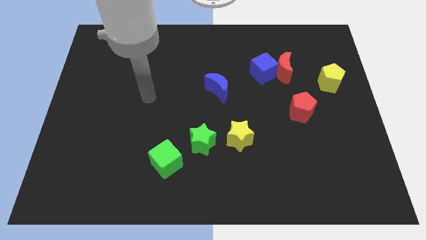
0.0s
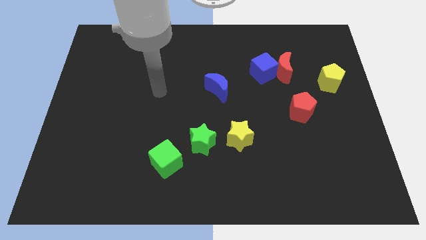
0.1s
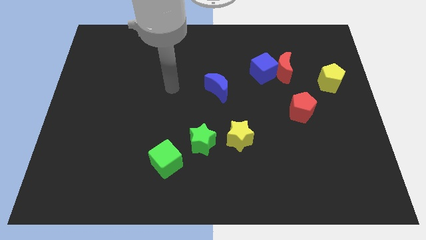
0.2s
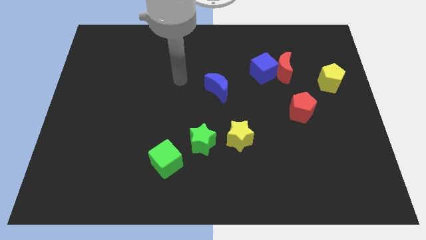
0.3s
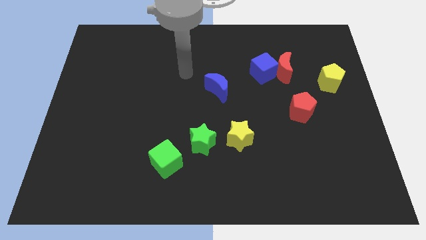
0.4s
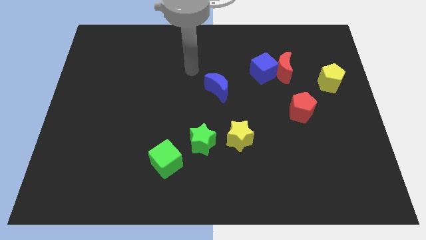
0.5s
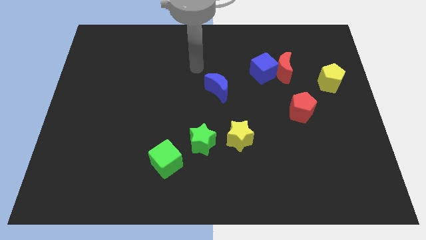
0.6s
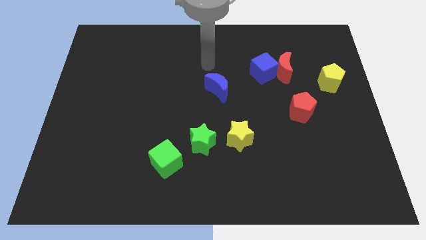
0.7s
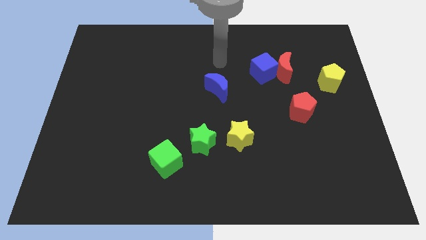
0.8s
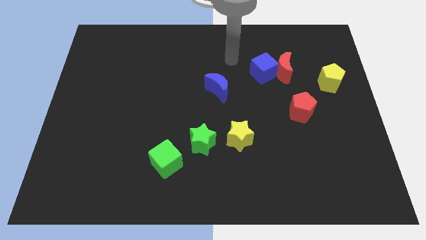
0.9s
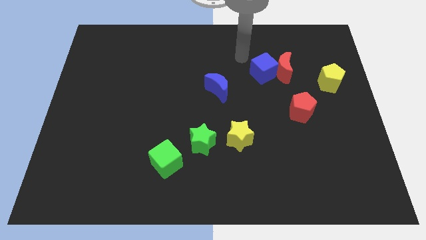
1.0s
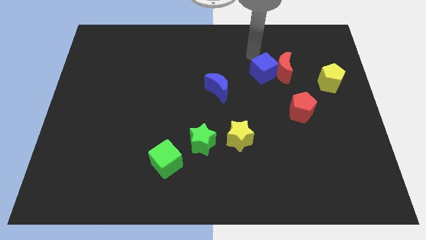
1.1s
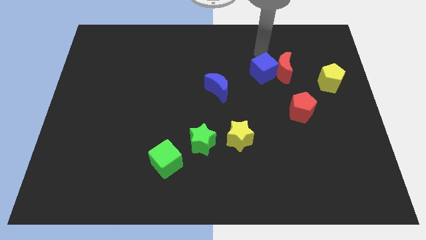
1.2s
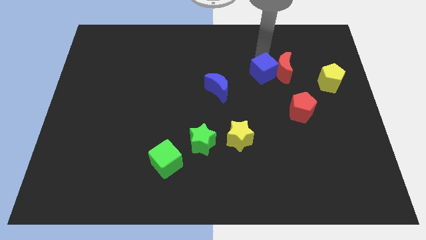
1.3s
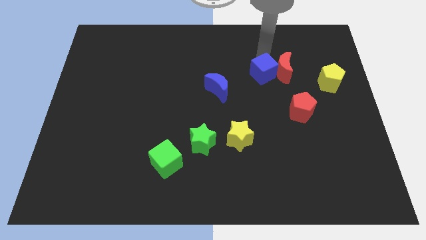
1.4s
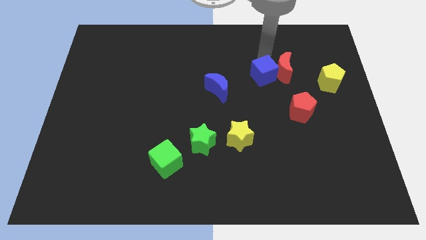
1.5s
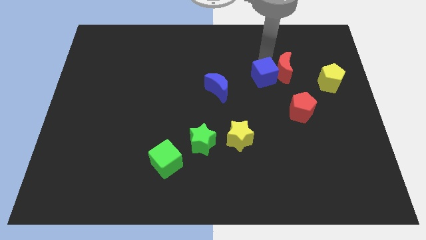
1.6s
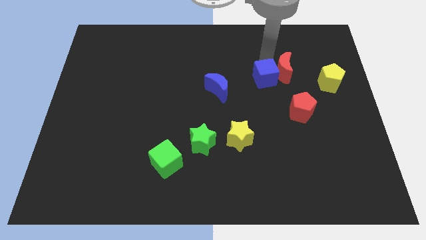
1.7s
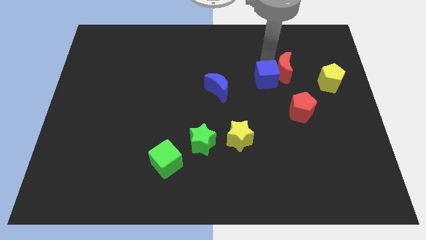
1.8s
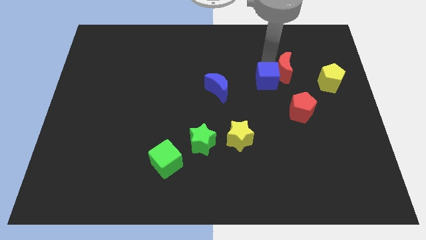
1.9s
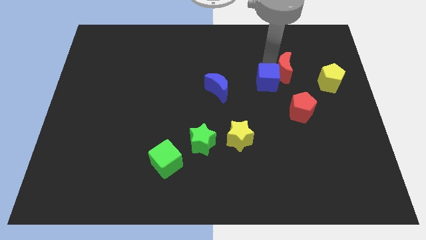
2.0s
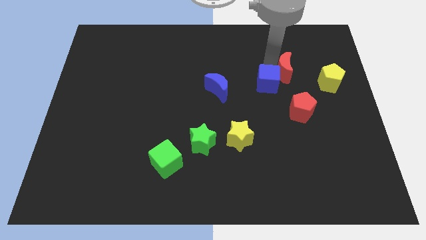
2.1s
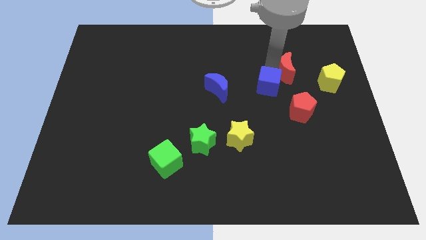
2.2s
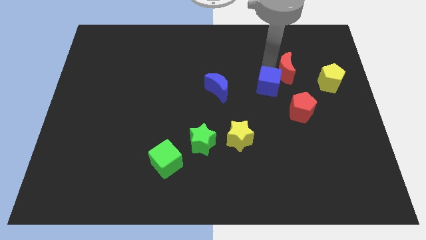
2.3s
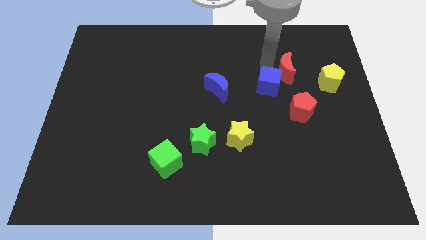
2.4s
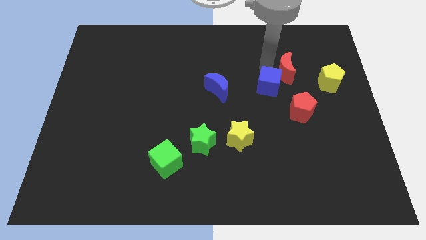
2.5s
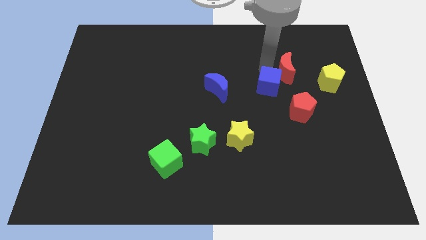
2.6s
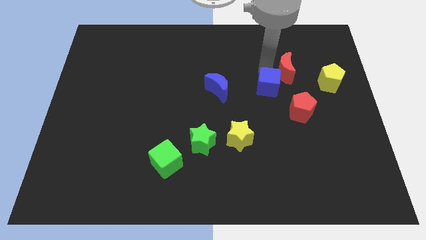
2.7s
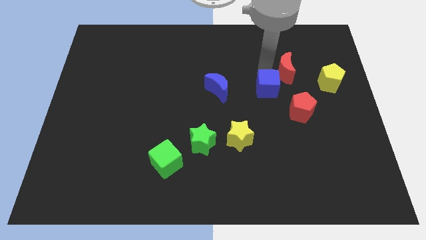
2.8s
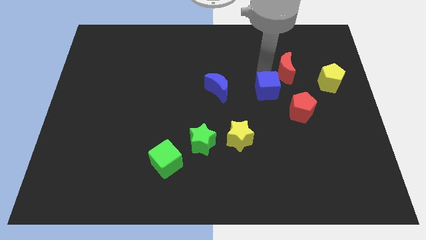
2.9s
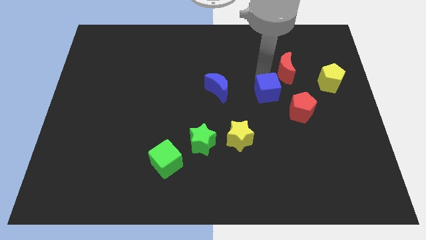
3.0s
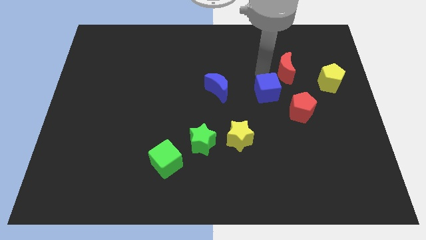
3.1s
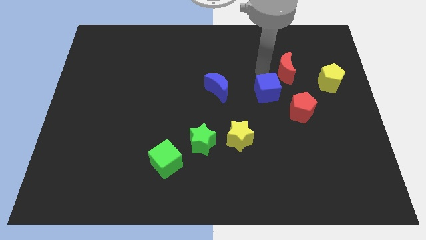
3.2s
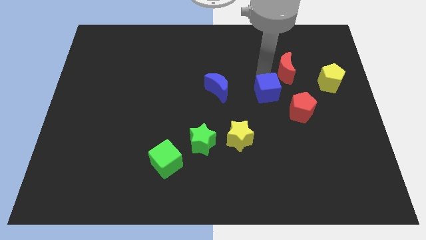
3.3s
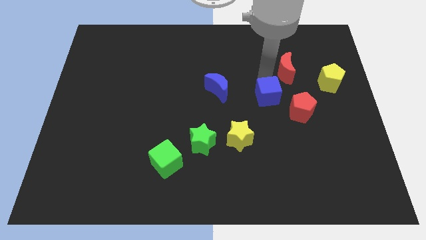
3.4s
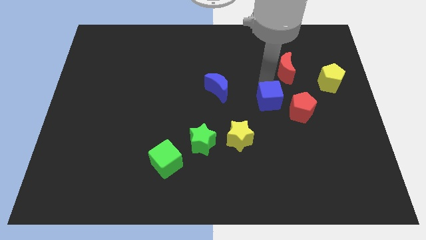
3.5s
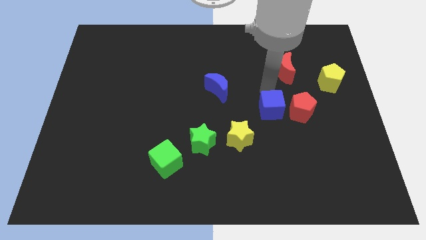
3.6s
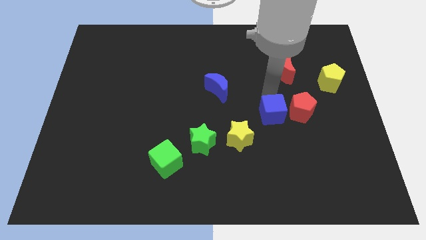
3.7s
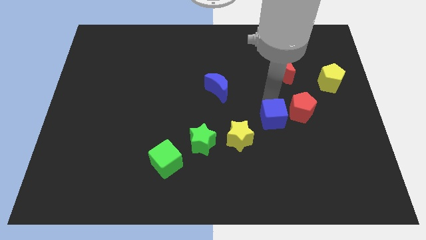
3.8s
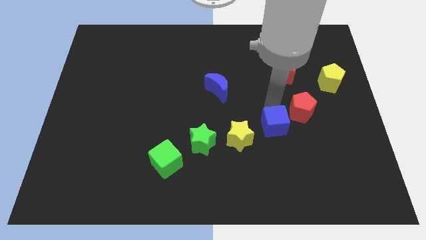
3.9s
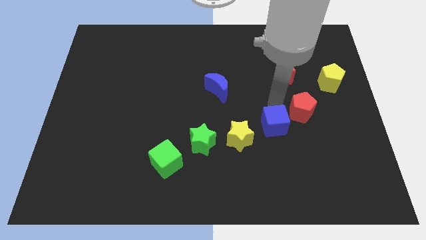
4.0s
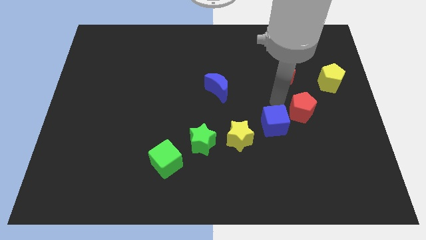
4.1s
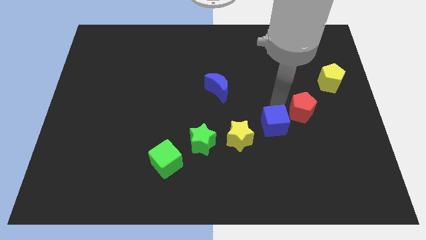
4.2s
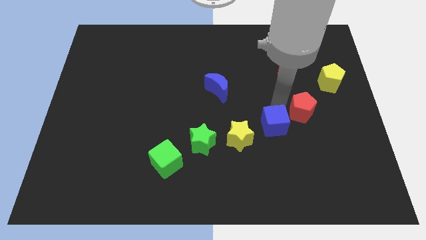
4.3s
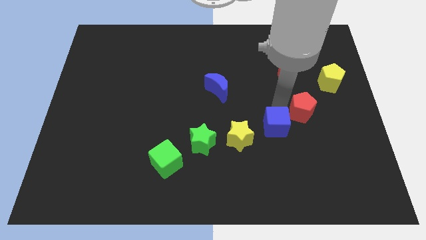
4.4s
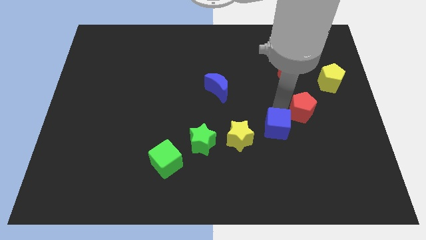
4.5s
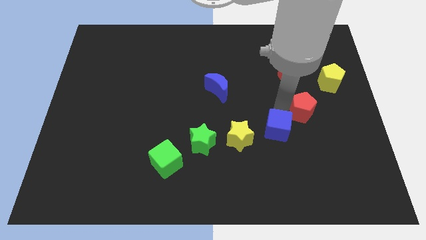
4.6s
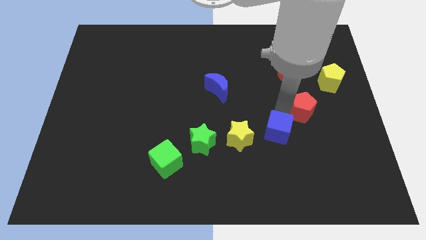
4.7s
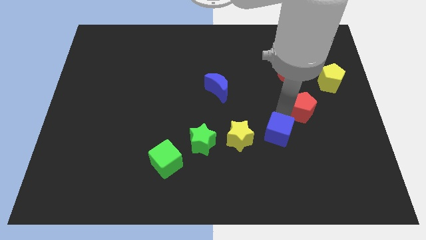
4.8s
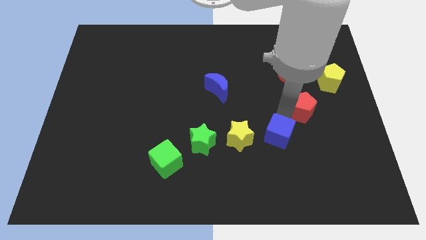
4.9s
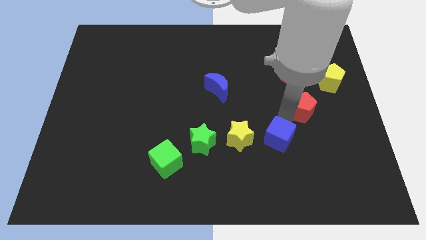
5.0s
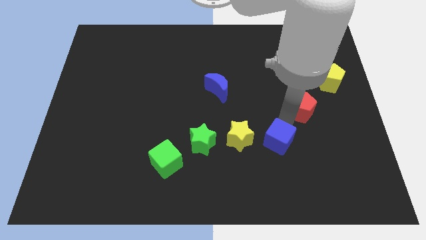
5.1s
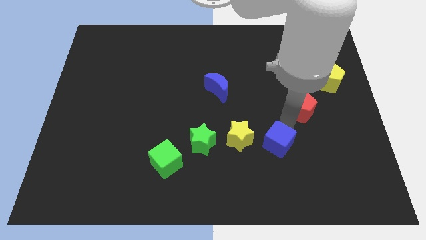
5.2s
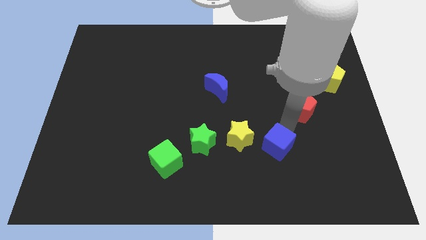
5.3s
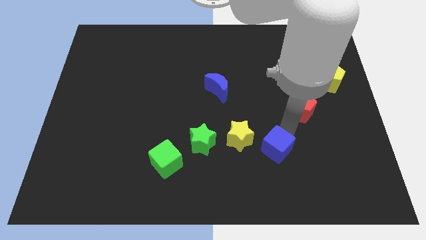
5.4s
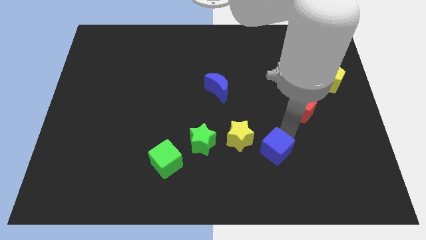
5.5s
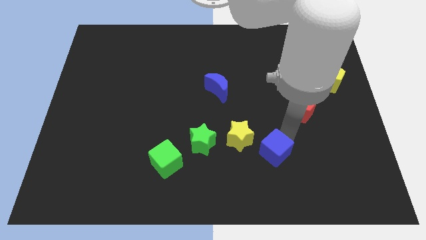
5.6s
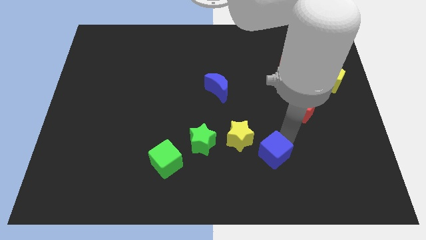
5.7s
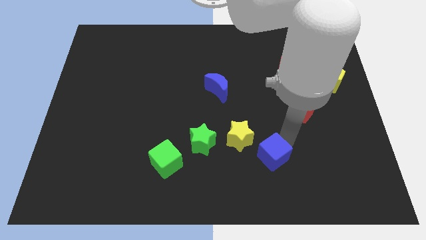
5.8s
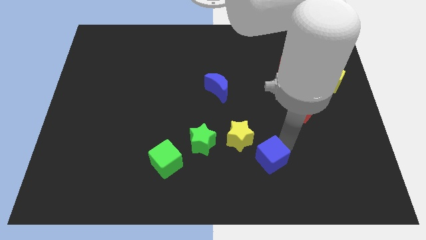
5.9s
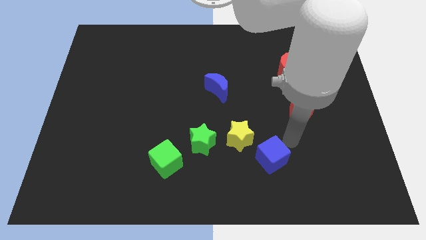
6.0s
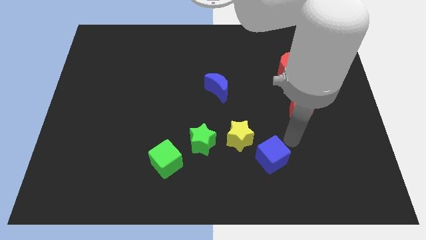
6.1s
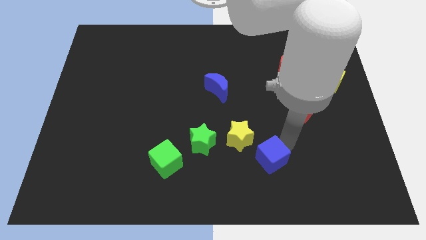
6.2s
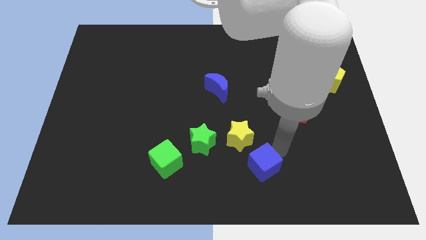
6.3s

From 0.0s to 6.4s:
push the blue cube to the bottom side of the yellow star
